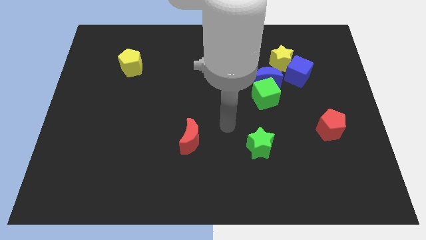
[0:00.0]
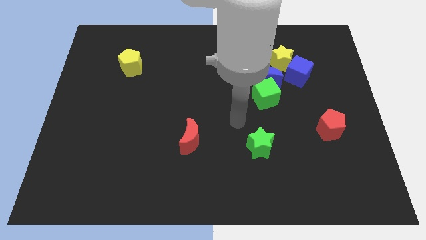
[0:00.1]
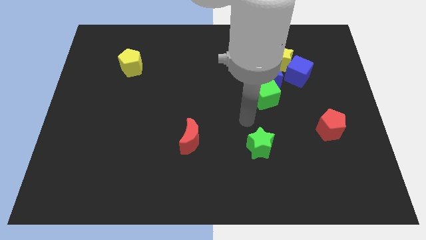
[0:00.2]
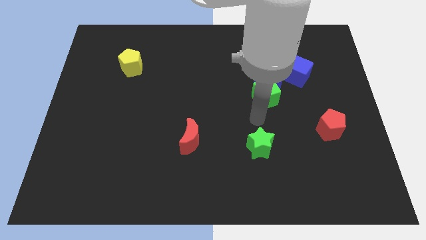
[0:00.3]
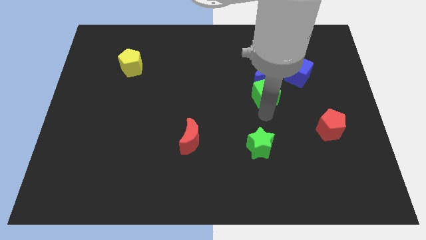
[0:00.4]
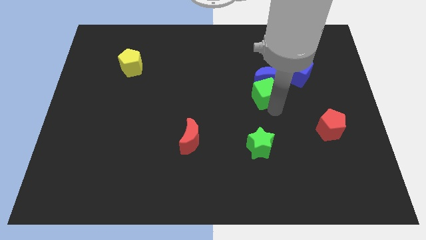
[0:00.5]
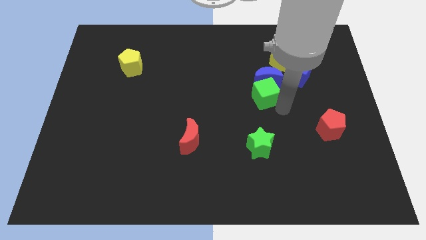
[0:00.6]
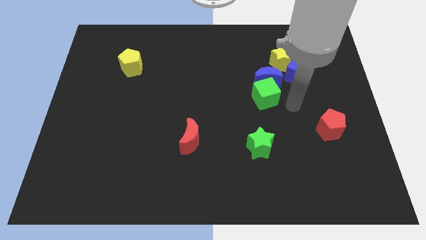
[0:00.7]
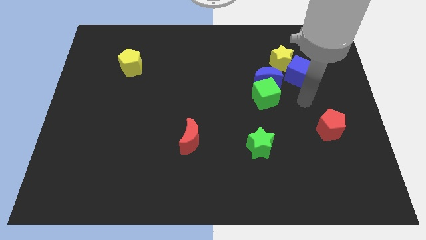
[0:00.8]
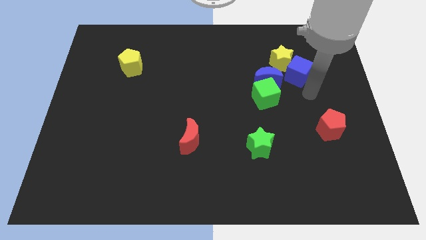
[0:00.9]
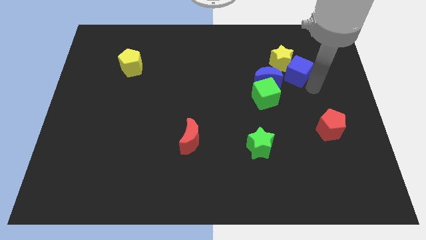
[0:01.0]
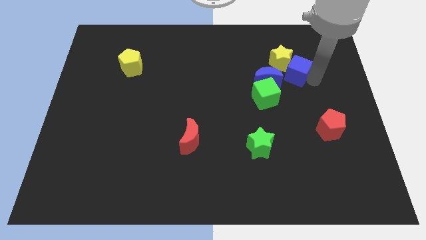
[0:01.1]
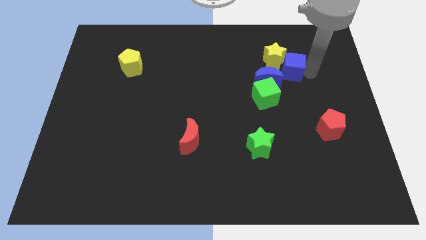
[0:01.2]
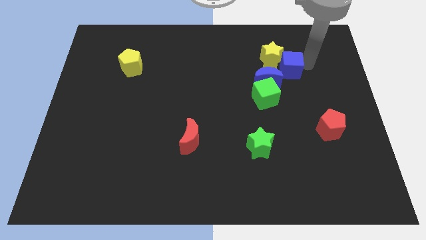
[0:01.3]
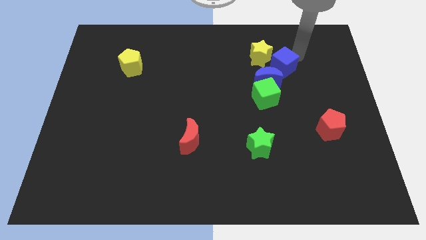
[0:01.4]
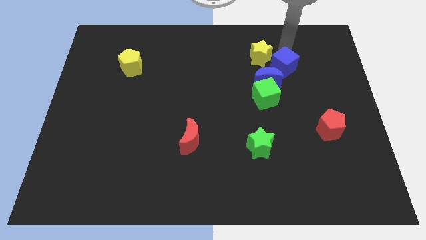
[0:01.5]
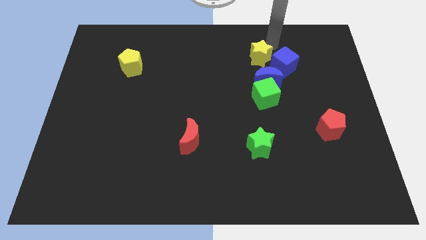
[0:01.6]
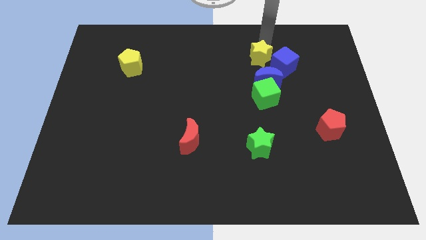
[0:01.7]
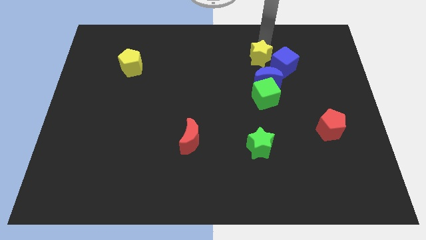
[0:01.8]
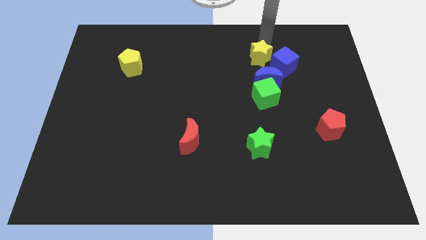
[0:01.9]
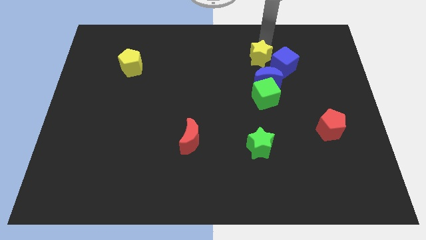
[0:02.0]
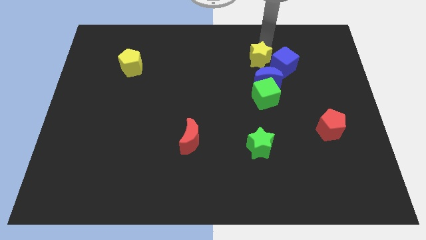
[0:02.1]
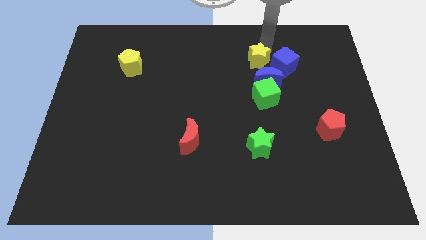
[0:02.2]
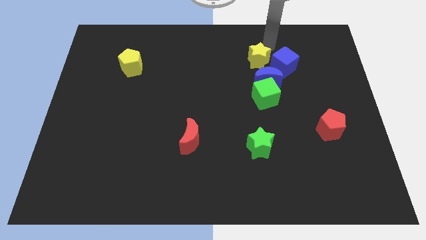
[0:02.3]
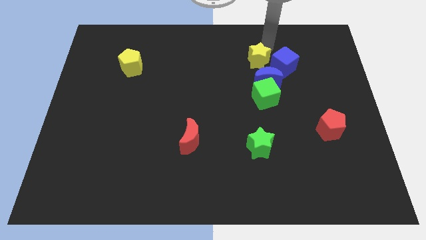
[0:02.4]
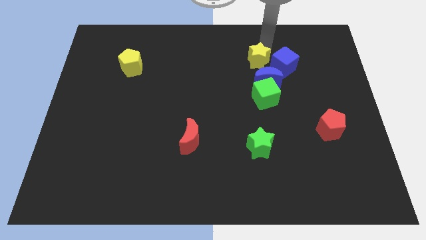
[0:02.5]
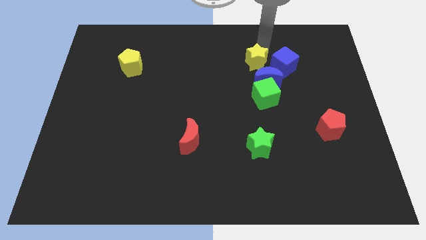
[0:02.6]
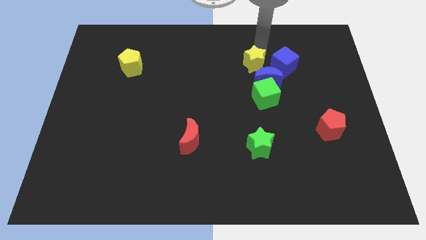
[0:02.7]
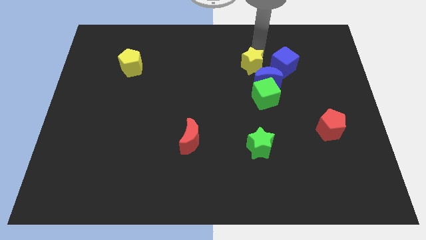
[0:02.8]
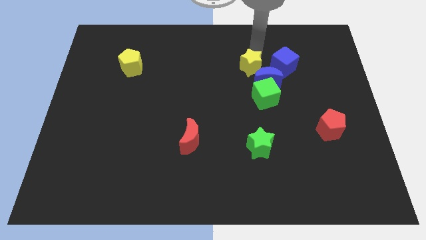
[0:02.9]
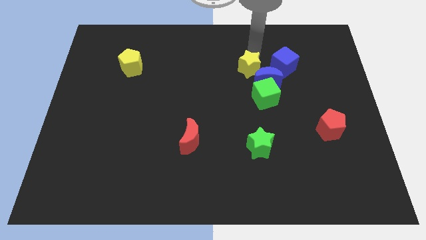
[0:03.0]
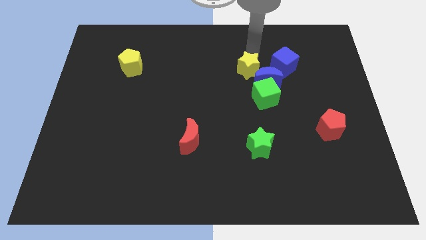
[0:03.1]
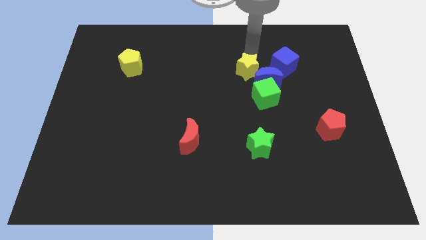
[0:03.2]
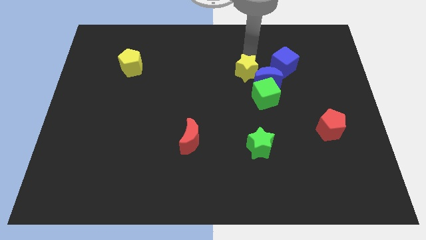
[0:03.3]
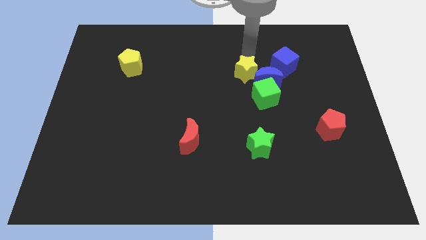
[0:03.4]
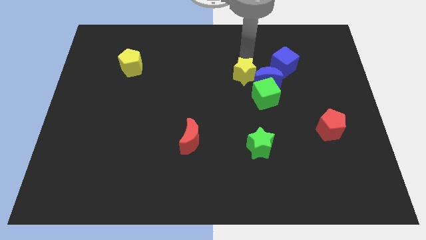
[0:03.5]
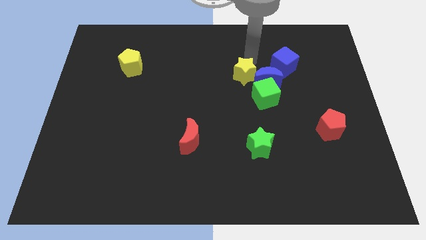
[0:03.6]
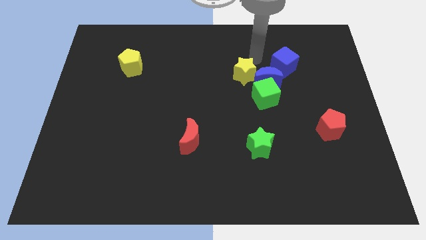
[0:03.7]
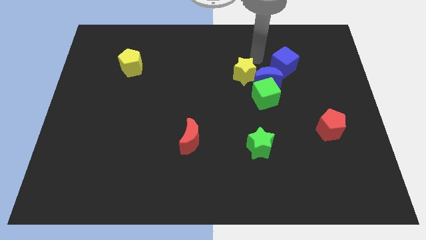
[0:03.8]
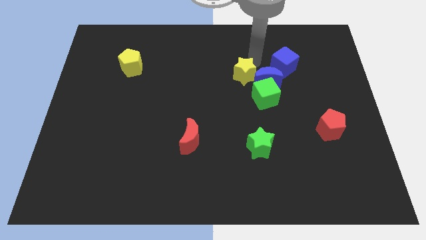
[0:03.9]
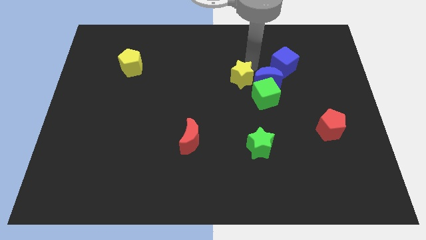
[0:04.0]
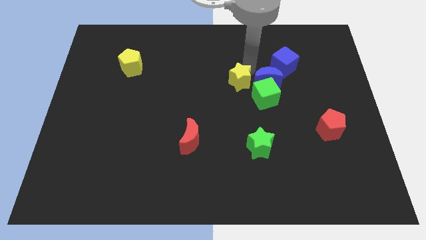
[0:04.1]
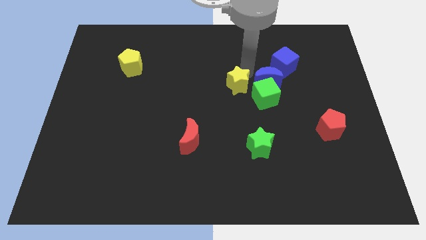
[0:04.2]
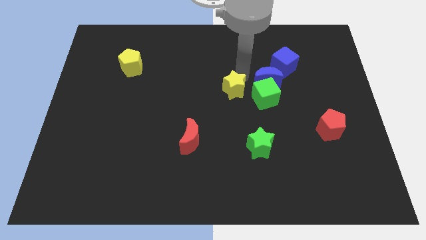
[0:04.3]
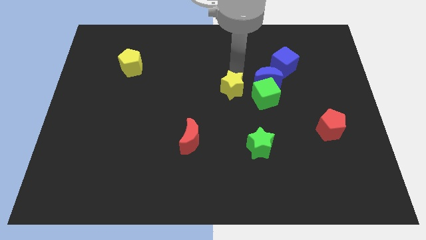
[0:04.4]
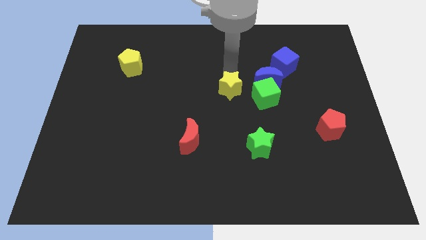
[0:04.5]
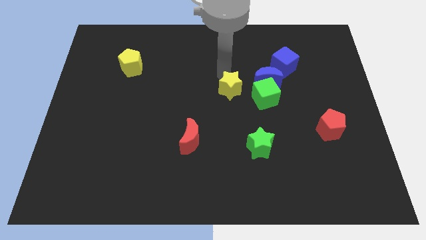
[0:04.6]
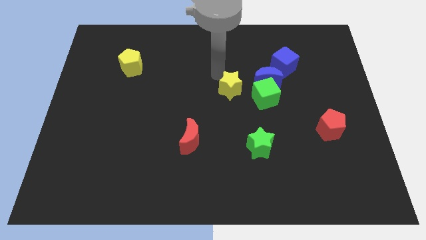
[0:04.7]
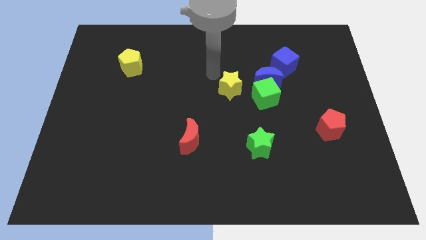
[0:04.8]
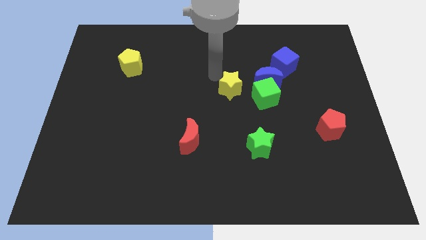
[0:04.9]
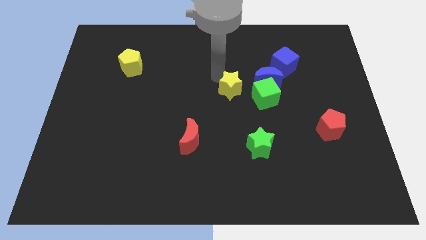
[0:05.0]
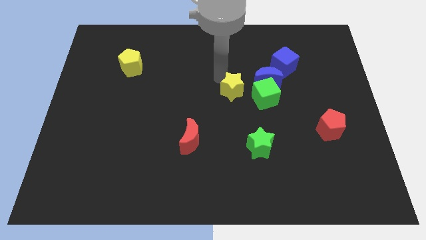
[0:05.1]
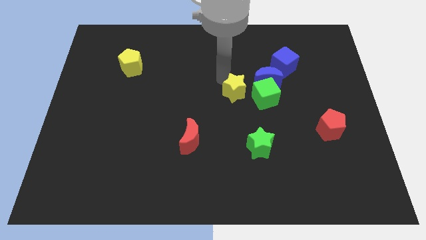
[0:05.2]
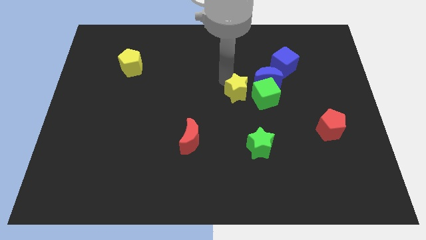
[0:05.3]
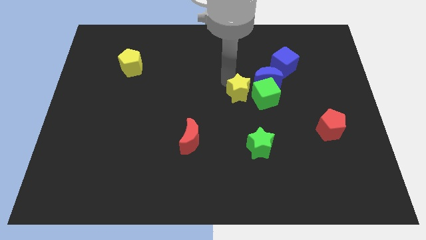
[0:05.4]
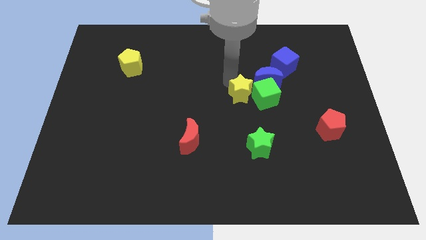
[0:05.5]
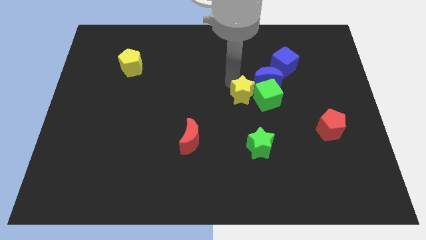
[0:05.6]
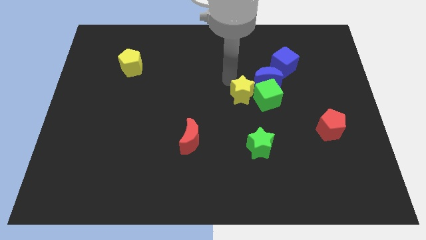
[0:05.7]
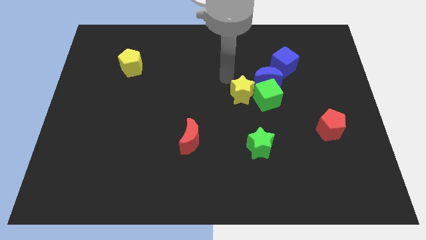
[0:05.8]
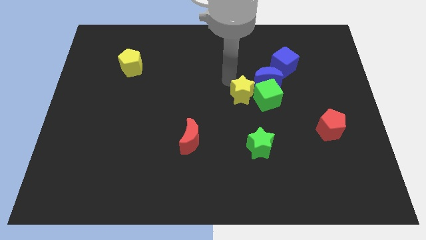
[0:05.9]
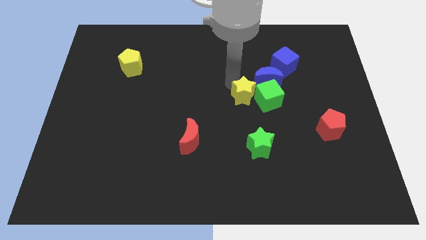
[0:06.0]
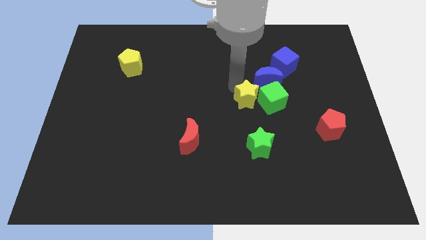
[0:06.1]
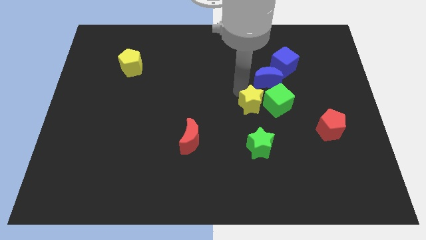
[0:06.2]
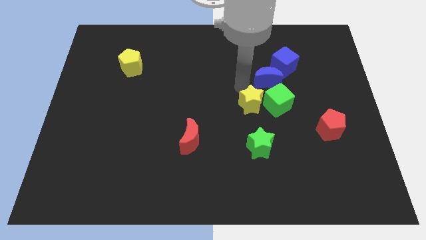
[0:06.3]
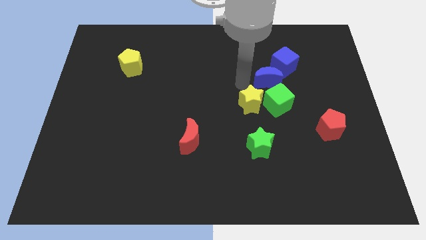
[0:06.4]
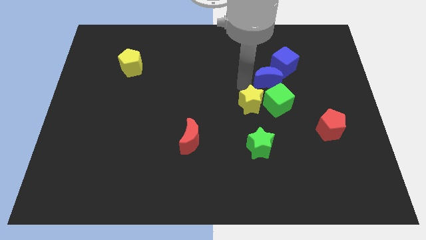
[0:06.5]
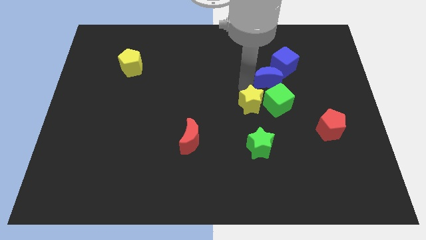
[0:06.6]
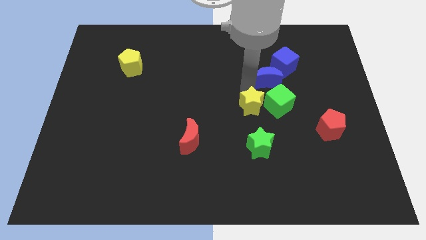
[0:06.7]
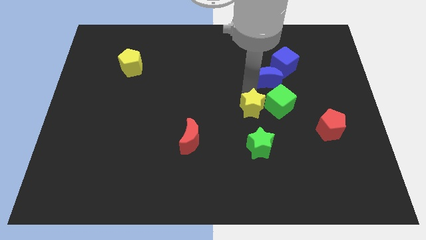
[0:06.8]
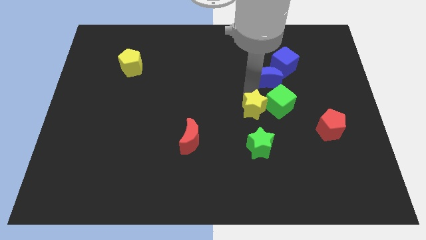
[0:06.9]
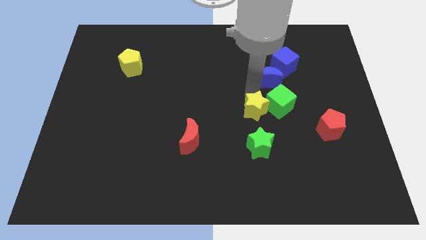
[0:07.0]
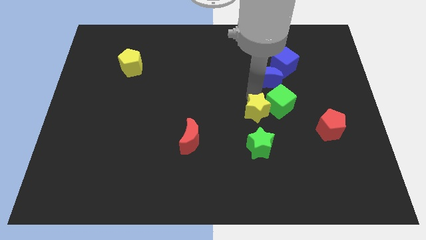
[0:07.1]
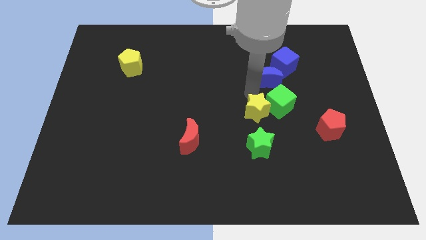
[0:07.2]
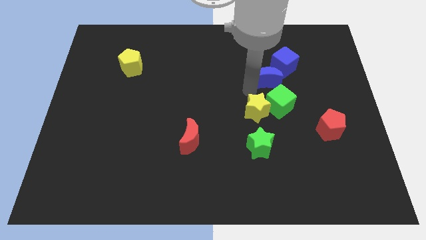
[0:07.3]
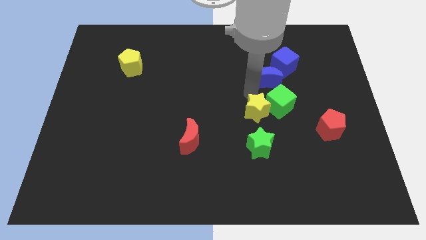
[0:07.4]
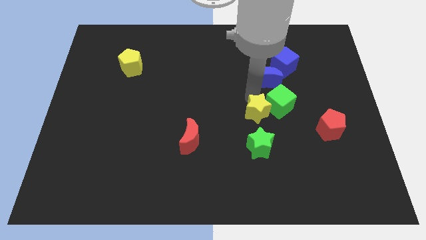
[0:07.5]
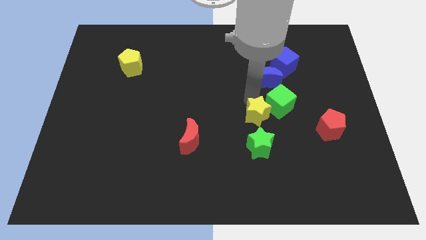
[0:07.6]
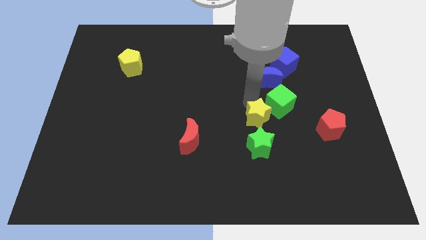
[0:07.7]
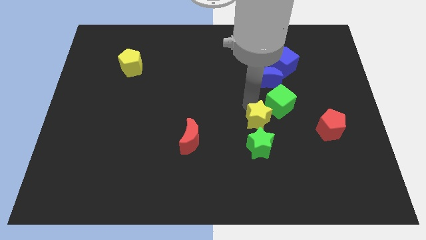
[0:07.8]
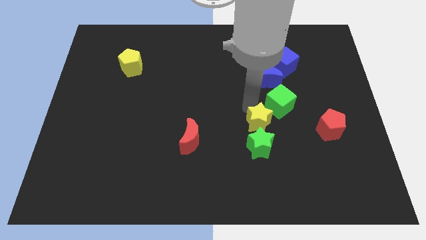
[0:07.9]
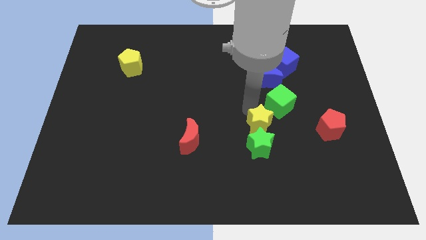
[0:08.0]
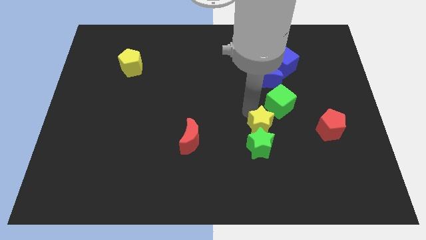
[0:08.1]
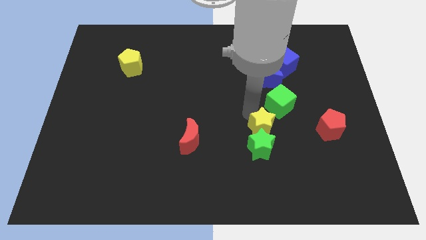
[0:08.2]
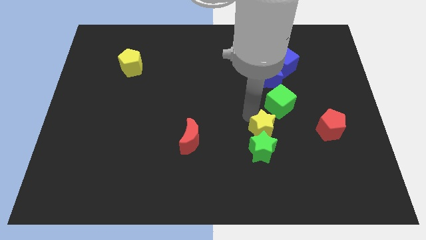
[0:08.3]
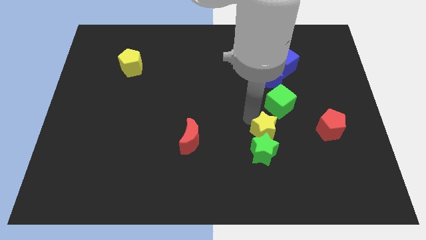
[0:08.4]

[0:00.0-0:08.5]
slide the yellow star down
